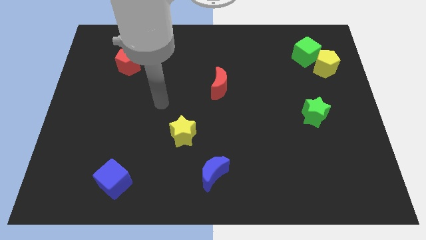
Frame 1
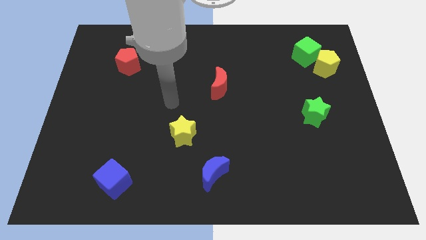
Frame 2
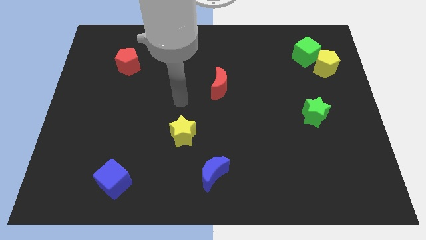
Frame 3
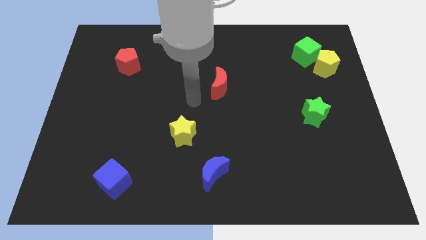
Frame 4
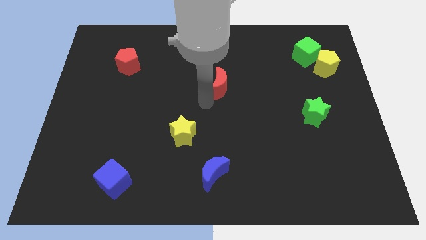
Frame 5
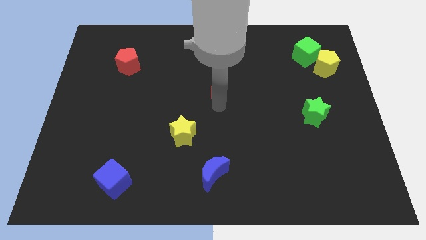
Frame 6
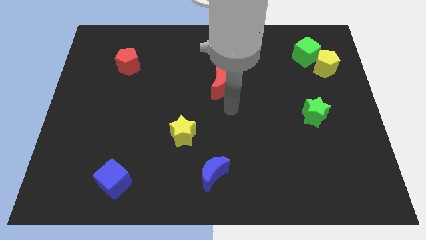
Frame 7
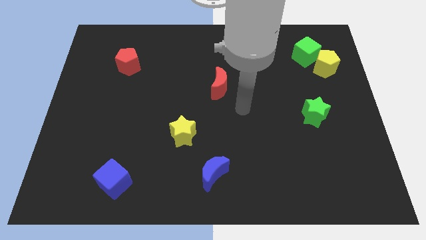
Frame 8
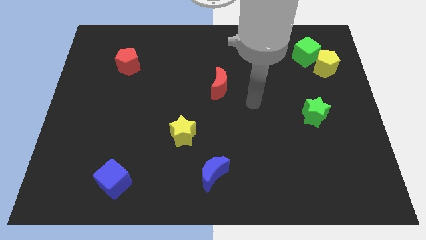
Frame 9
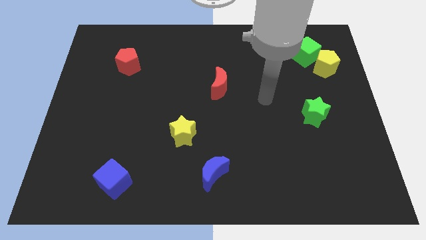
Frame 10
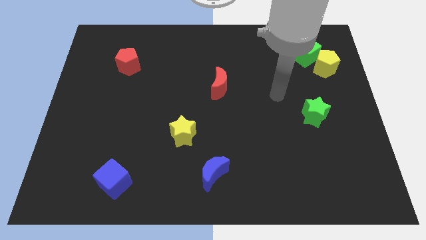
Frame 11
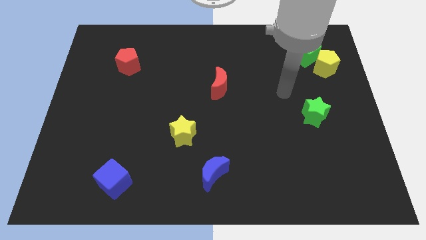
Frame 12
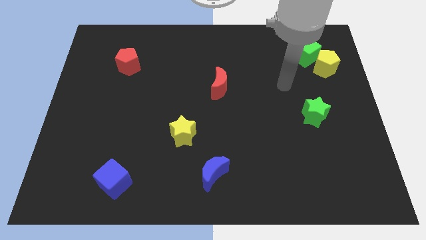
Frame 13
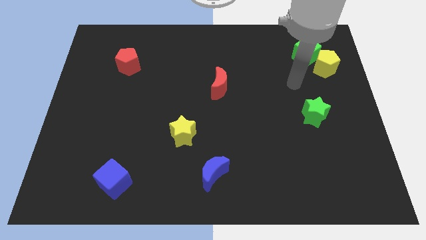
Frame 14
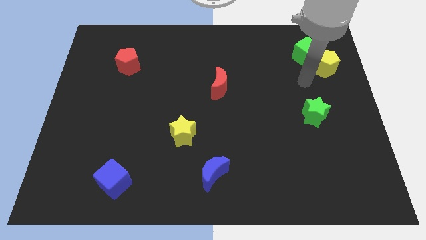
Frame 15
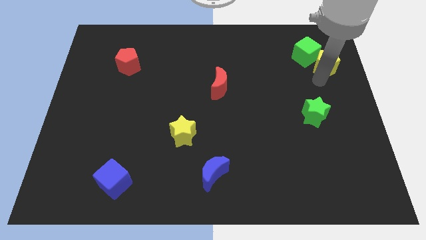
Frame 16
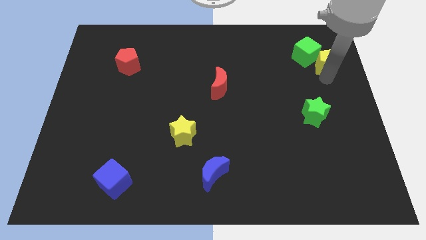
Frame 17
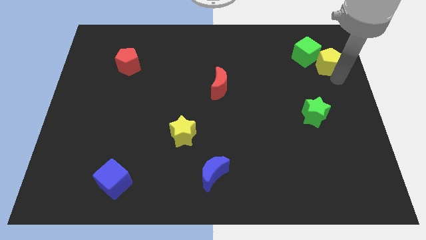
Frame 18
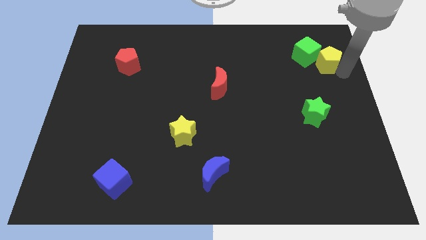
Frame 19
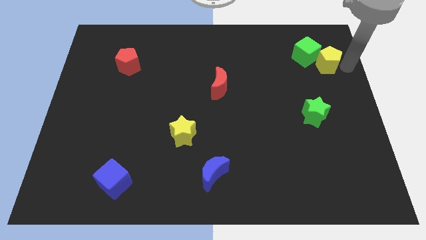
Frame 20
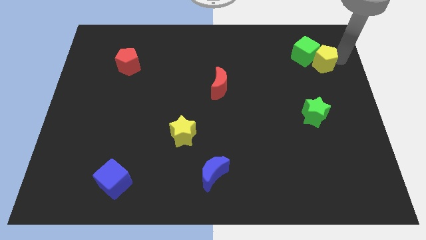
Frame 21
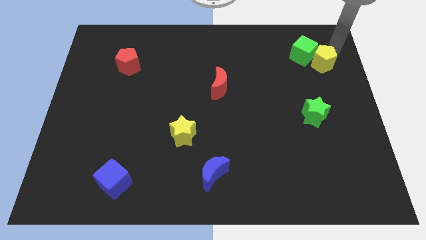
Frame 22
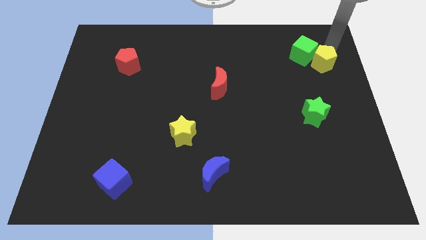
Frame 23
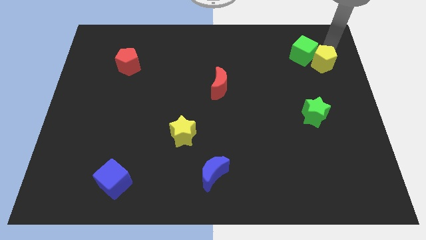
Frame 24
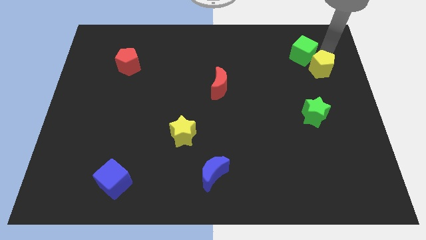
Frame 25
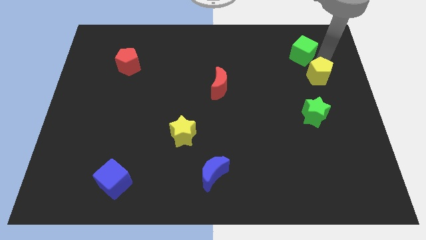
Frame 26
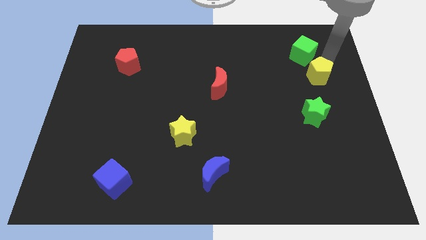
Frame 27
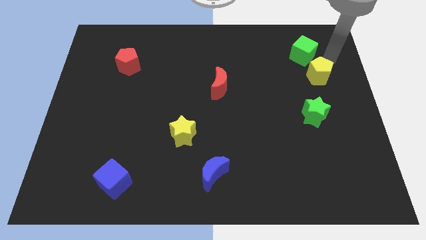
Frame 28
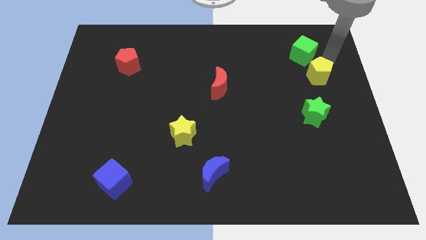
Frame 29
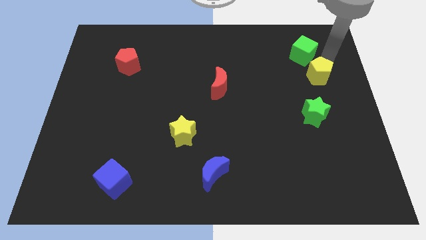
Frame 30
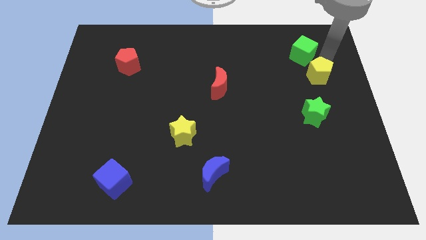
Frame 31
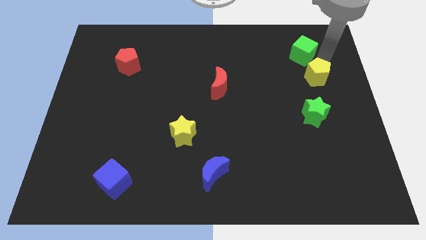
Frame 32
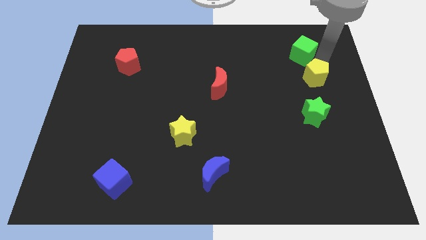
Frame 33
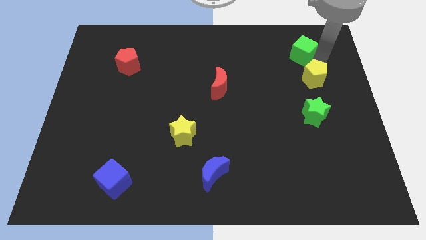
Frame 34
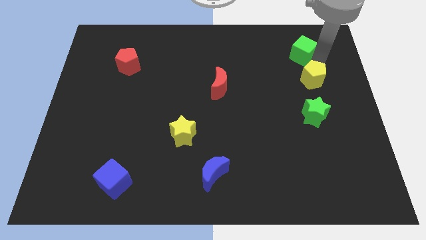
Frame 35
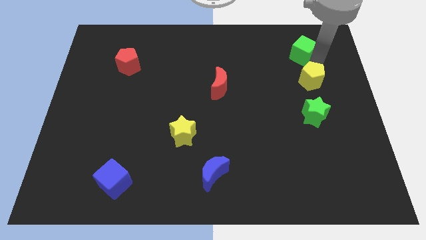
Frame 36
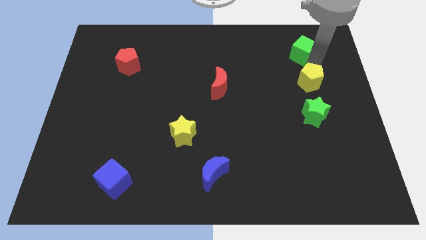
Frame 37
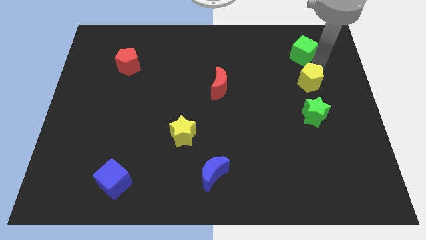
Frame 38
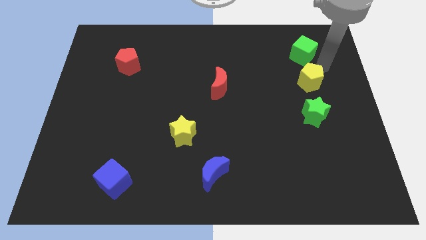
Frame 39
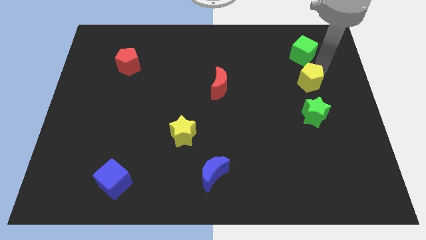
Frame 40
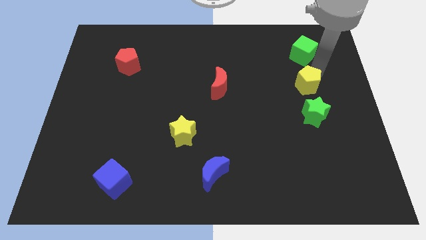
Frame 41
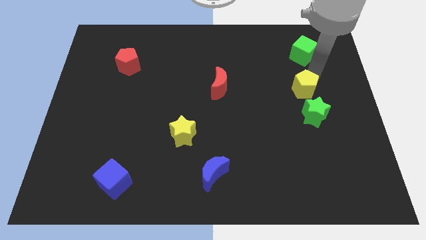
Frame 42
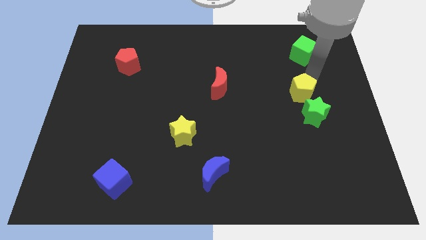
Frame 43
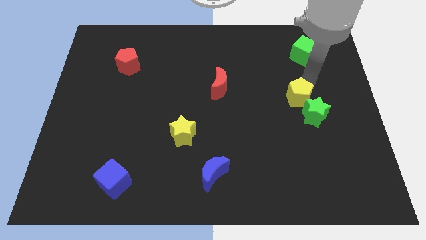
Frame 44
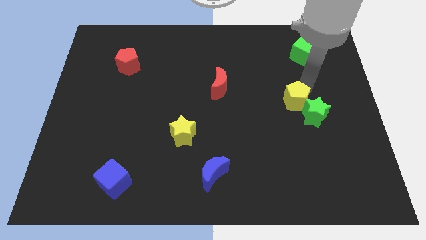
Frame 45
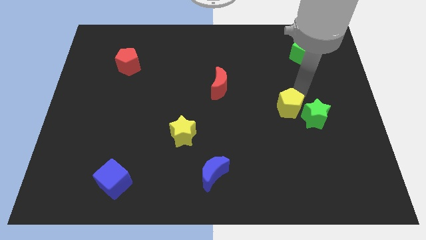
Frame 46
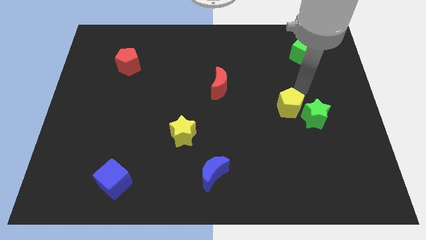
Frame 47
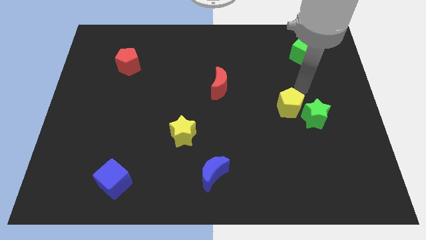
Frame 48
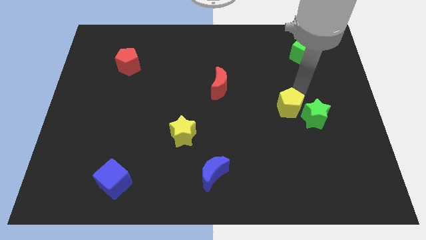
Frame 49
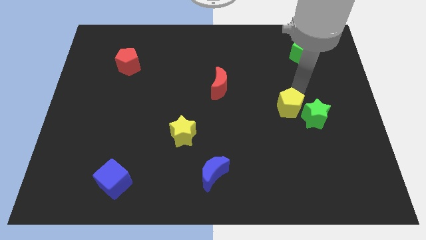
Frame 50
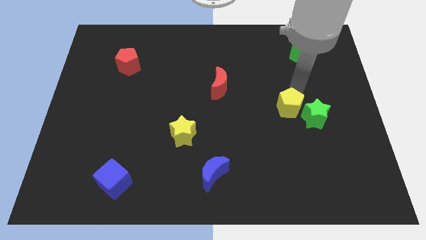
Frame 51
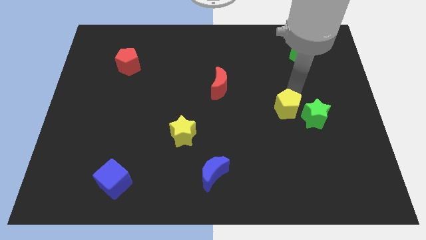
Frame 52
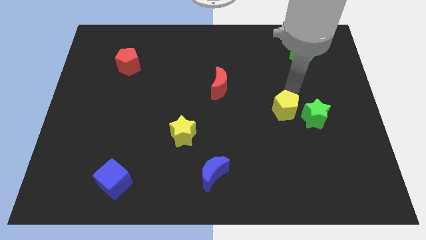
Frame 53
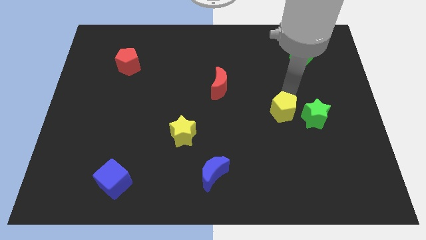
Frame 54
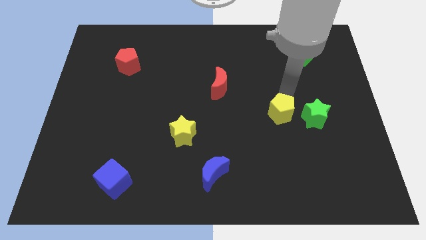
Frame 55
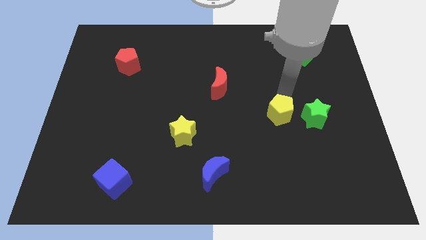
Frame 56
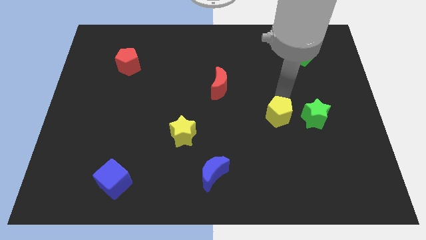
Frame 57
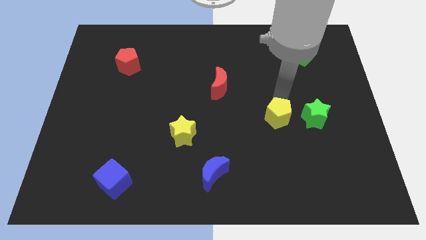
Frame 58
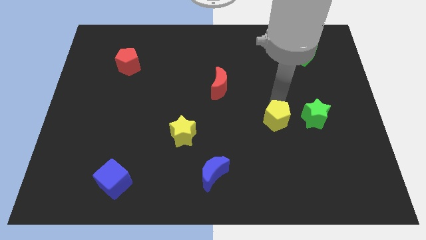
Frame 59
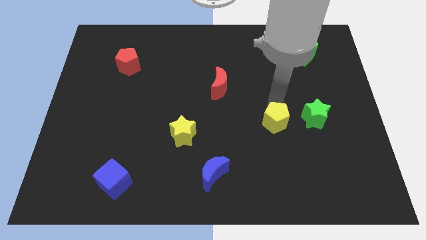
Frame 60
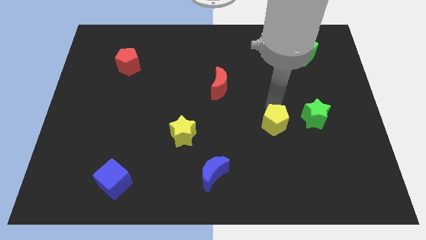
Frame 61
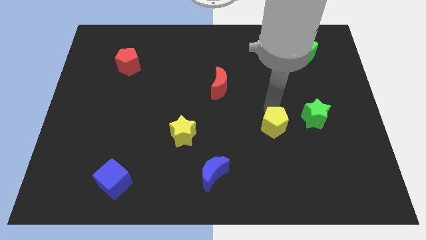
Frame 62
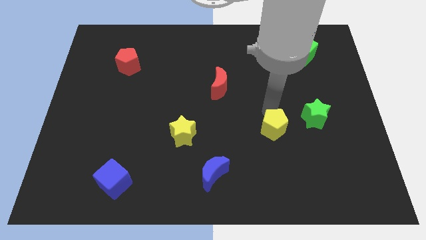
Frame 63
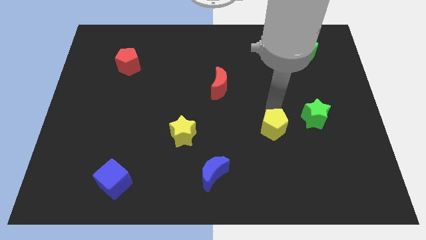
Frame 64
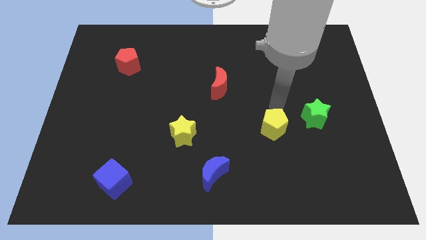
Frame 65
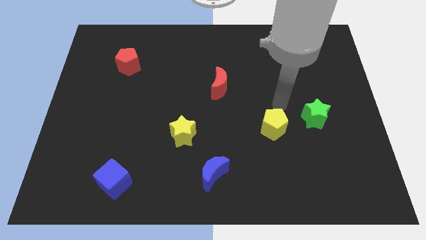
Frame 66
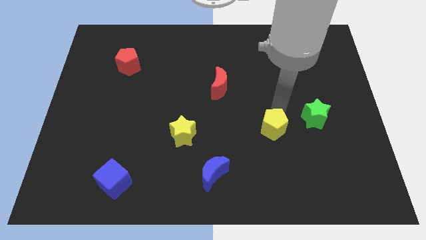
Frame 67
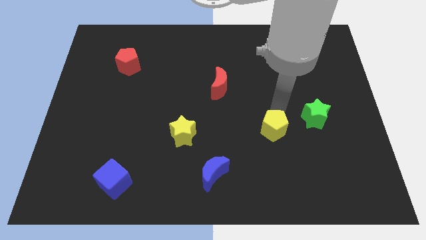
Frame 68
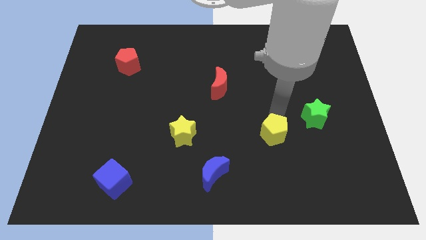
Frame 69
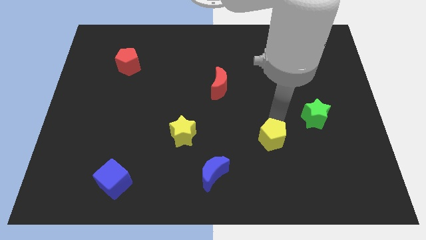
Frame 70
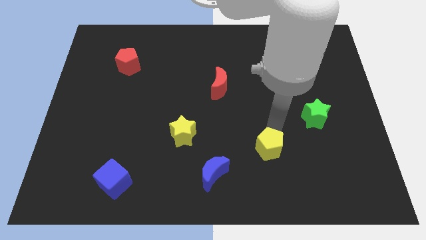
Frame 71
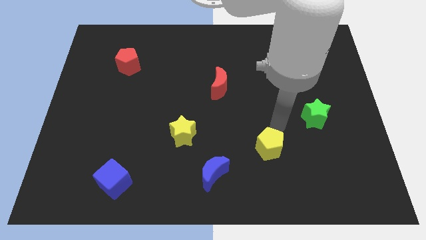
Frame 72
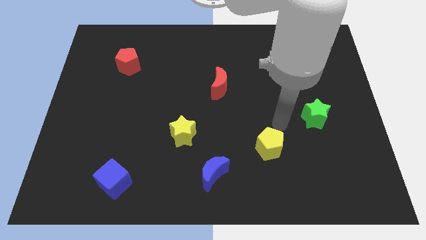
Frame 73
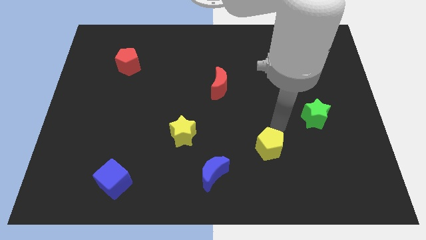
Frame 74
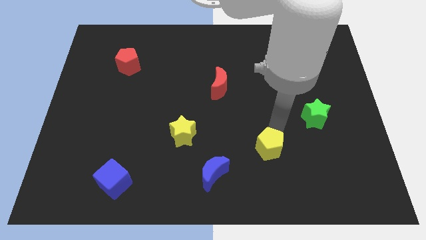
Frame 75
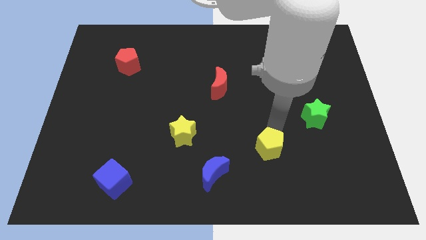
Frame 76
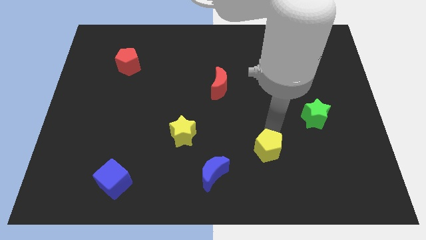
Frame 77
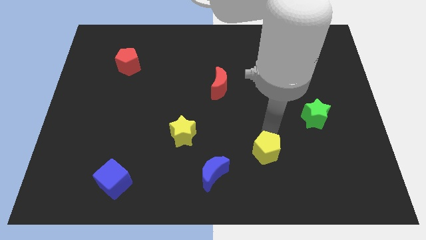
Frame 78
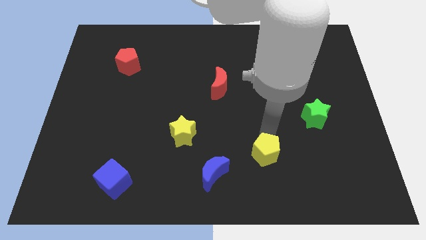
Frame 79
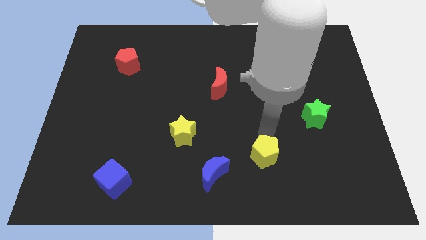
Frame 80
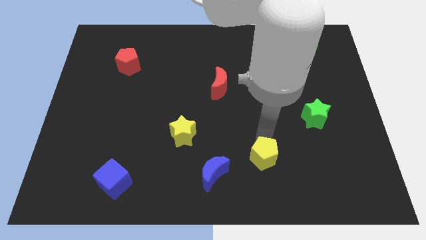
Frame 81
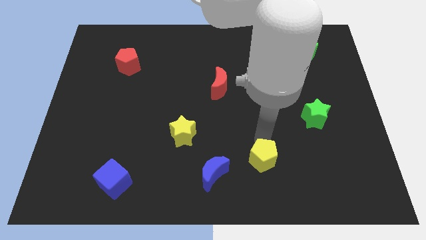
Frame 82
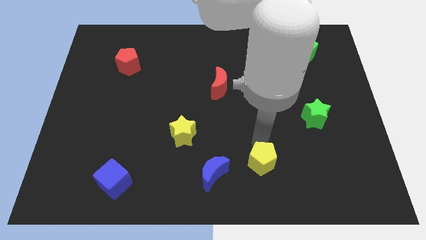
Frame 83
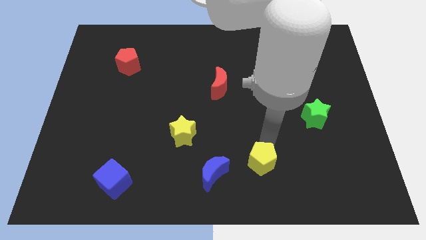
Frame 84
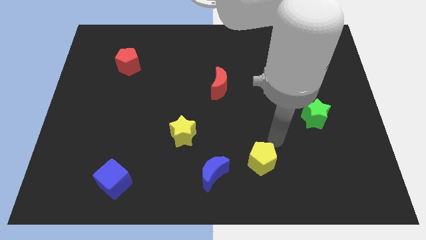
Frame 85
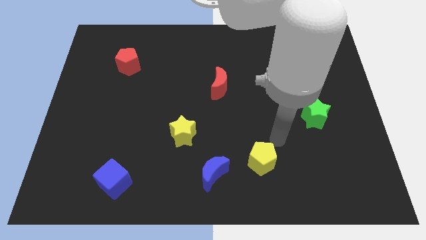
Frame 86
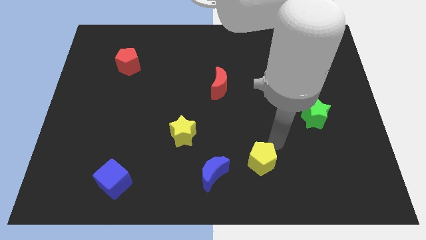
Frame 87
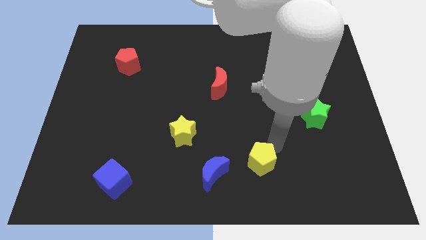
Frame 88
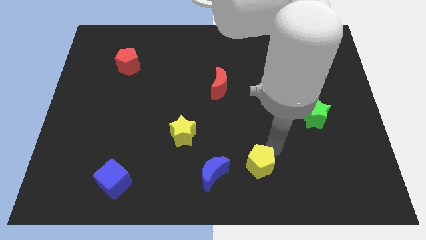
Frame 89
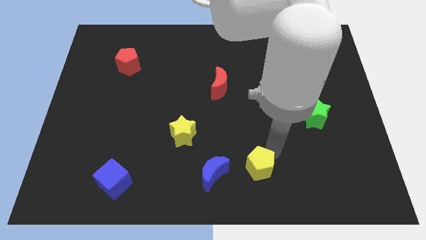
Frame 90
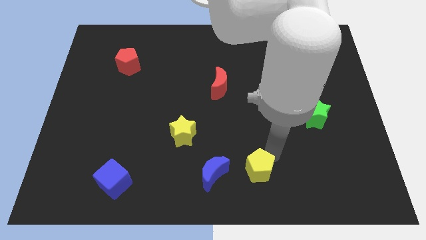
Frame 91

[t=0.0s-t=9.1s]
put the yellow pentagon to the bottom
